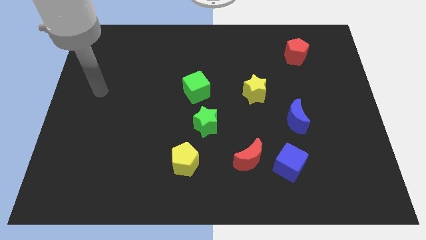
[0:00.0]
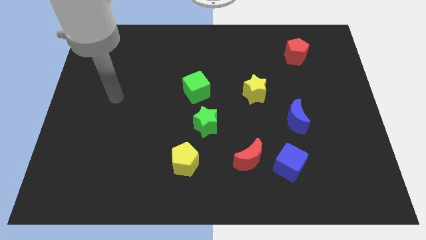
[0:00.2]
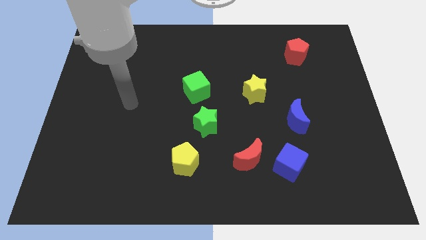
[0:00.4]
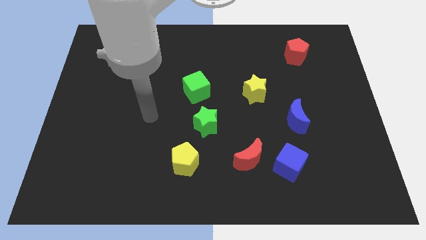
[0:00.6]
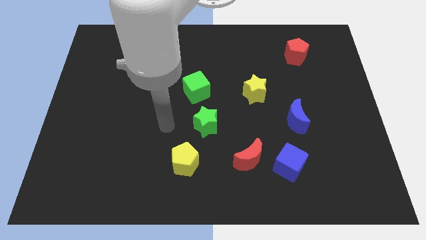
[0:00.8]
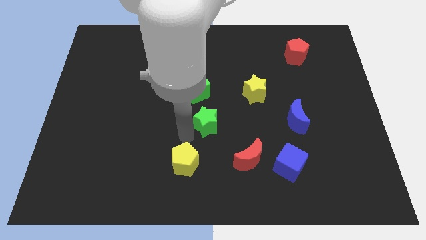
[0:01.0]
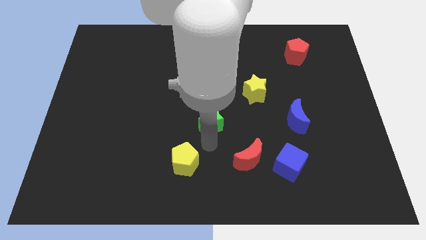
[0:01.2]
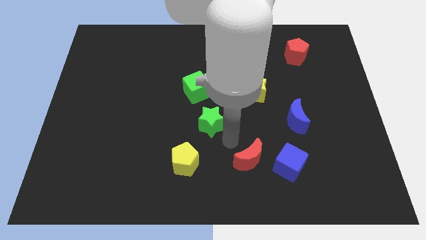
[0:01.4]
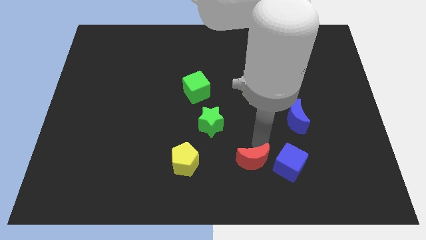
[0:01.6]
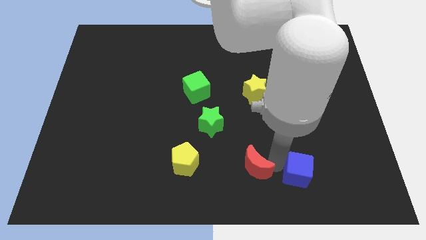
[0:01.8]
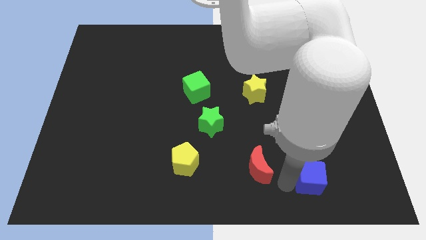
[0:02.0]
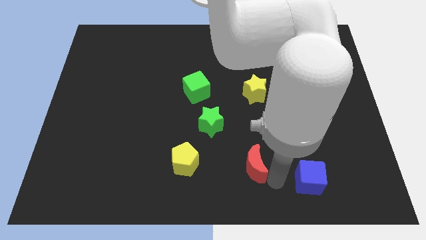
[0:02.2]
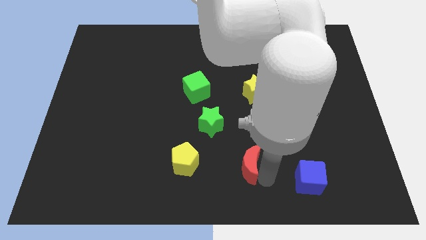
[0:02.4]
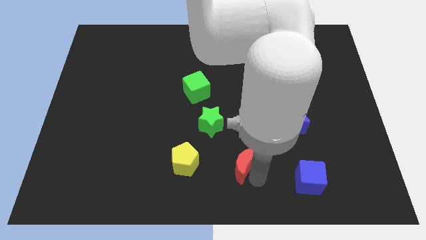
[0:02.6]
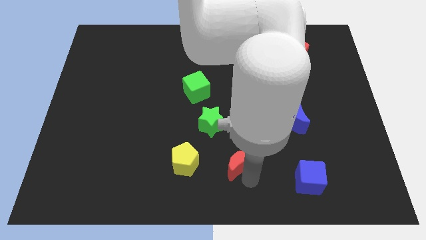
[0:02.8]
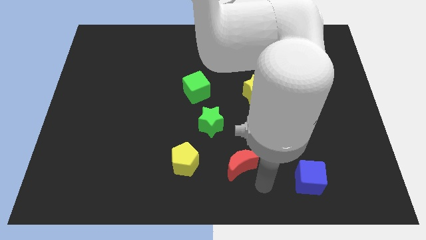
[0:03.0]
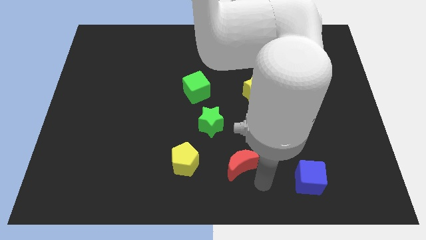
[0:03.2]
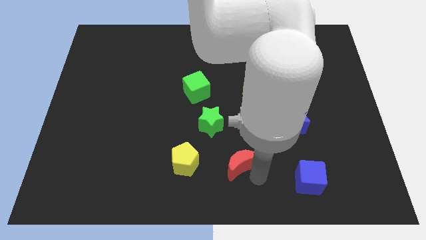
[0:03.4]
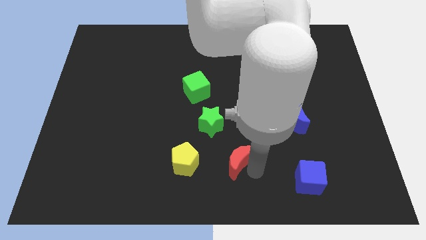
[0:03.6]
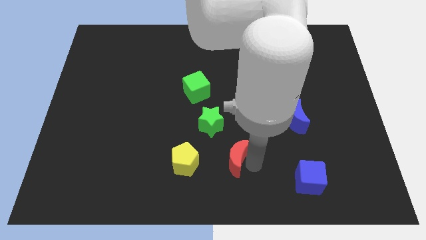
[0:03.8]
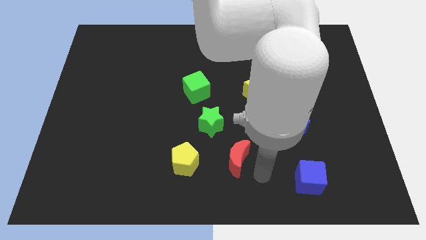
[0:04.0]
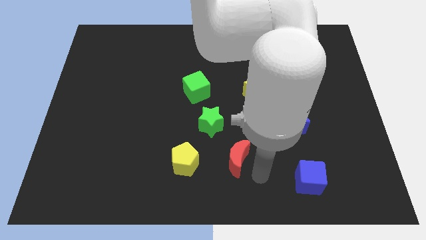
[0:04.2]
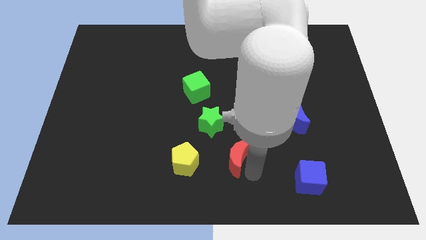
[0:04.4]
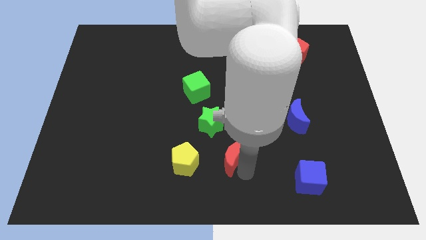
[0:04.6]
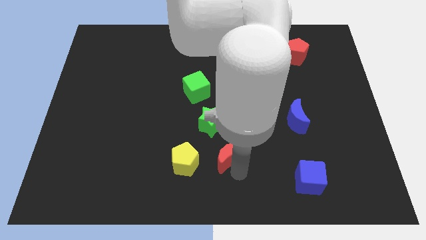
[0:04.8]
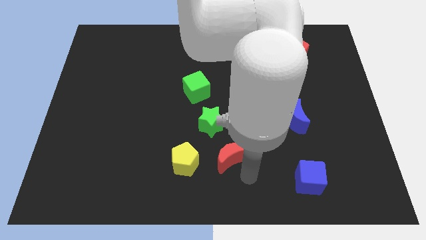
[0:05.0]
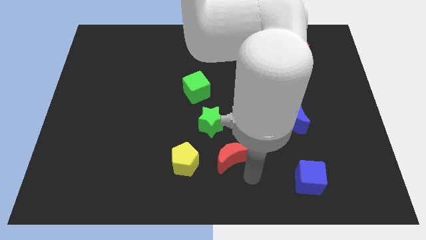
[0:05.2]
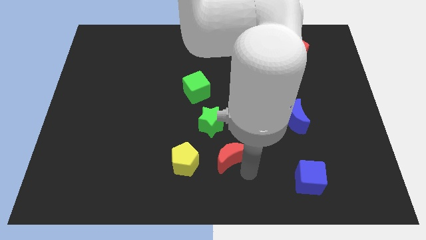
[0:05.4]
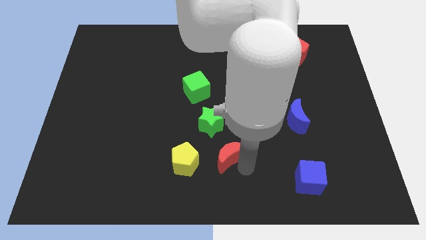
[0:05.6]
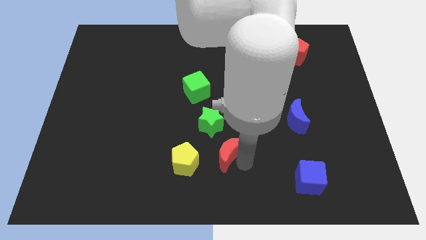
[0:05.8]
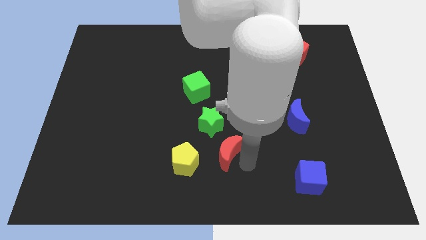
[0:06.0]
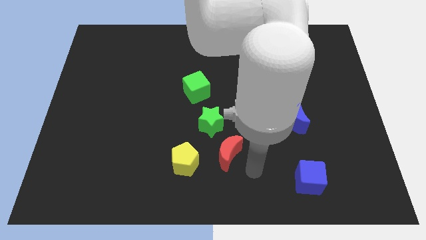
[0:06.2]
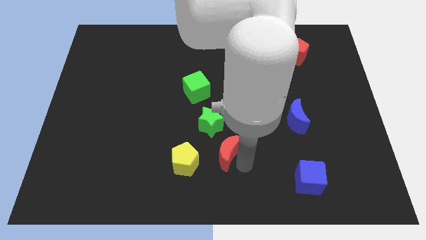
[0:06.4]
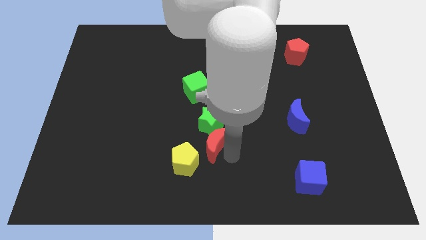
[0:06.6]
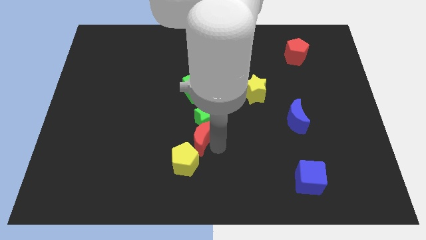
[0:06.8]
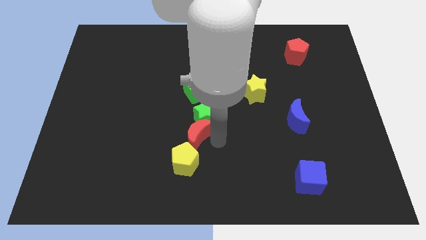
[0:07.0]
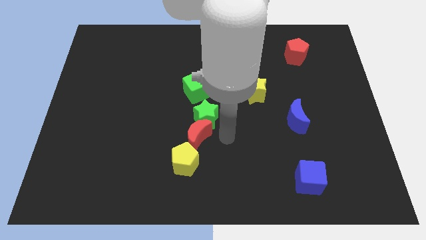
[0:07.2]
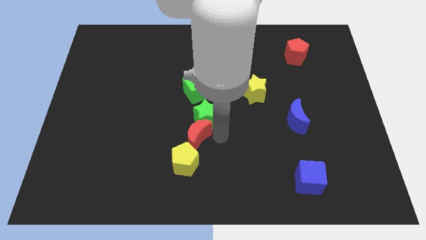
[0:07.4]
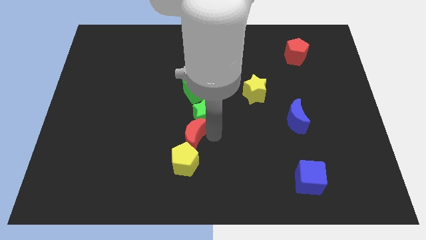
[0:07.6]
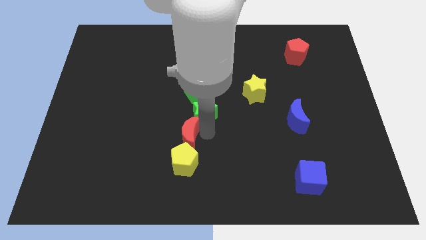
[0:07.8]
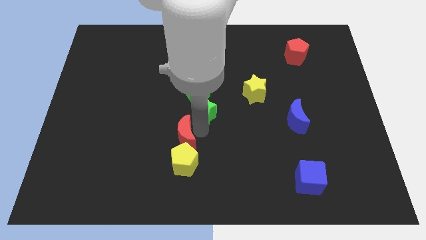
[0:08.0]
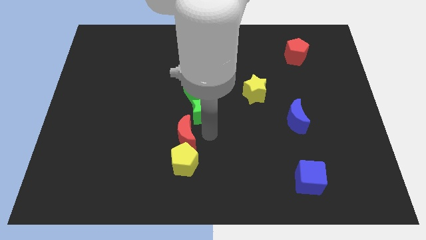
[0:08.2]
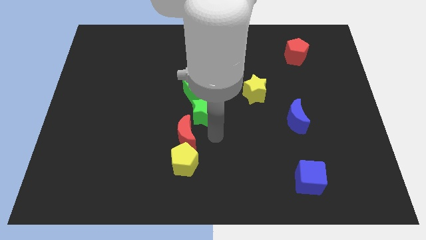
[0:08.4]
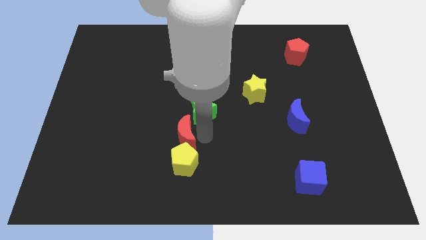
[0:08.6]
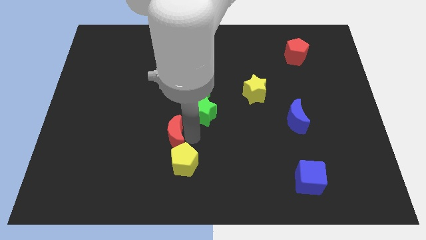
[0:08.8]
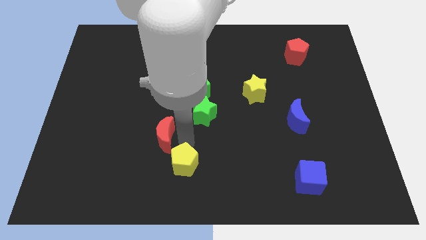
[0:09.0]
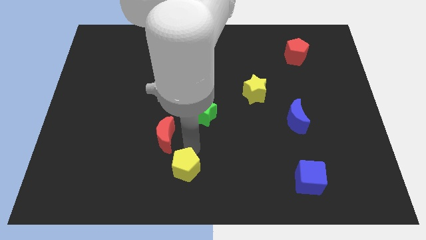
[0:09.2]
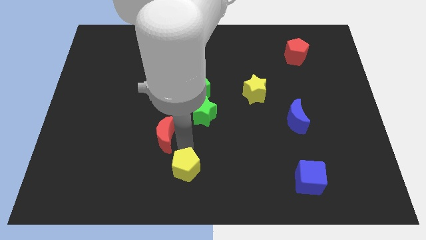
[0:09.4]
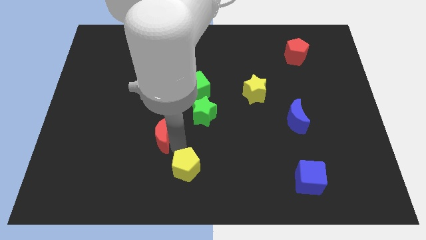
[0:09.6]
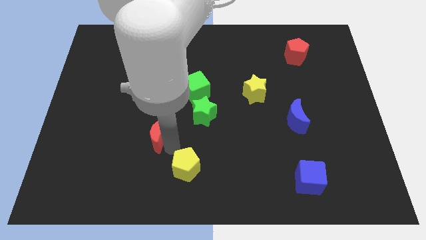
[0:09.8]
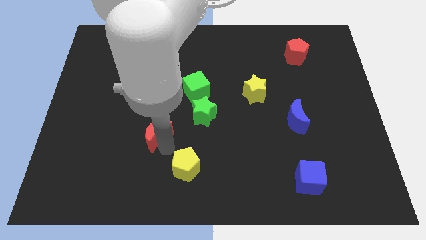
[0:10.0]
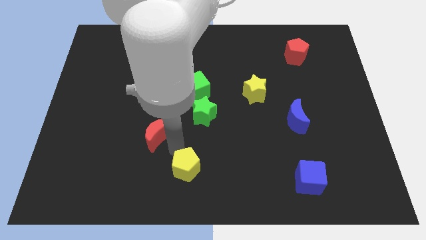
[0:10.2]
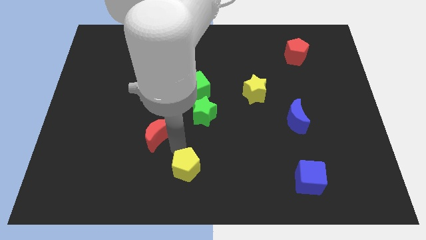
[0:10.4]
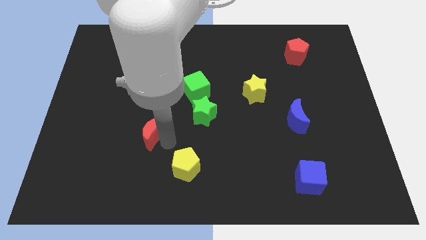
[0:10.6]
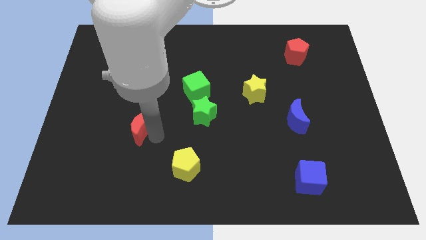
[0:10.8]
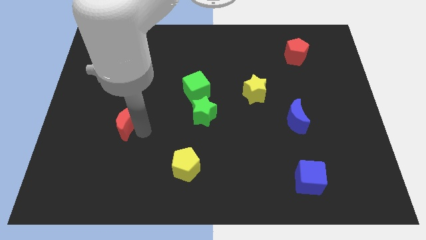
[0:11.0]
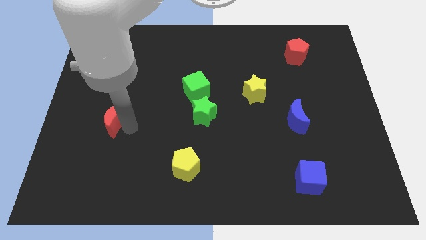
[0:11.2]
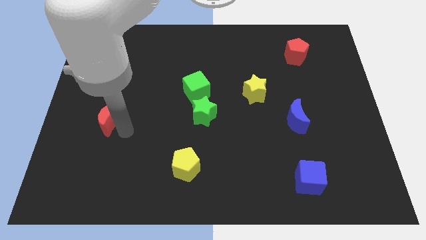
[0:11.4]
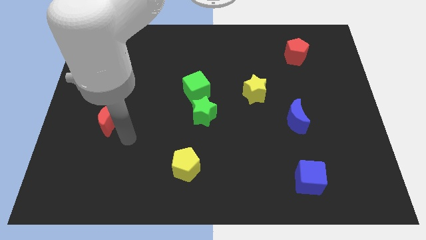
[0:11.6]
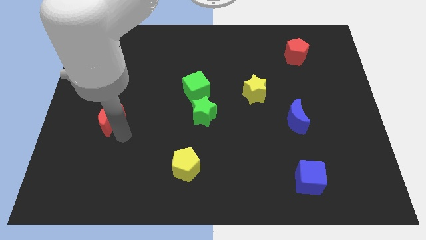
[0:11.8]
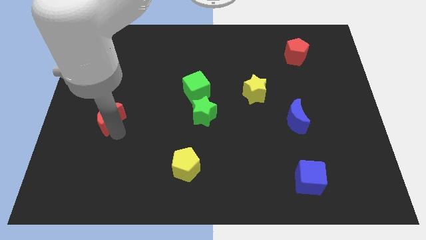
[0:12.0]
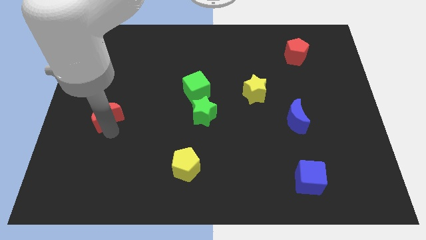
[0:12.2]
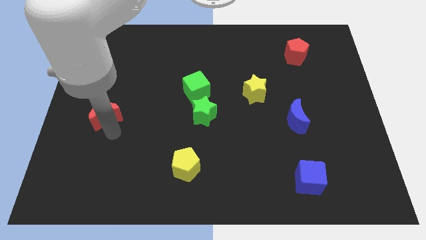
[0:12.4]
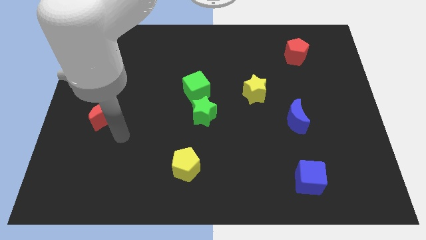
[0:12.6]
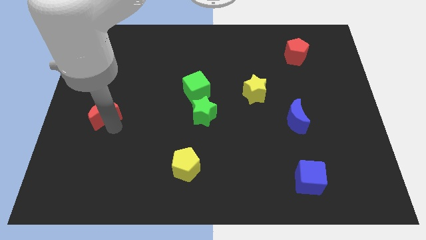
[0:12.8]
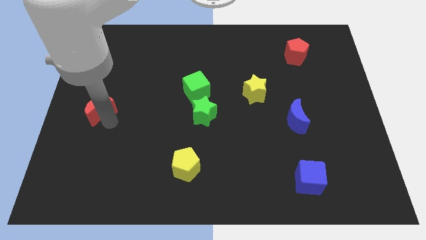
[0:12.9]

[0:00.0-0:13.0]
move the red moon to the left side of the board

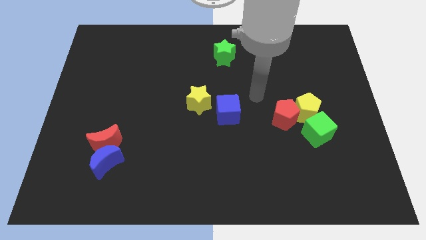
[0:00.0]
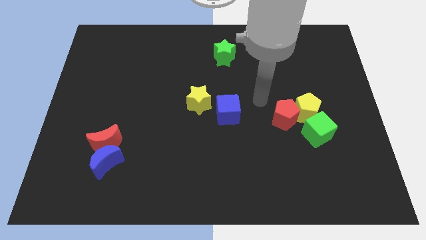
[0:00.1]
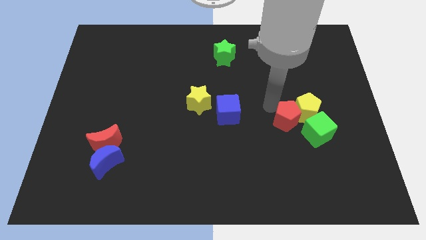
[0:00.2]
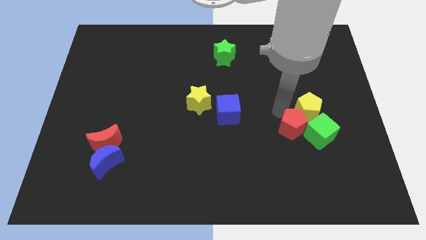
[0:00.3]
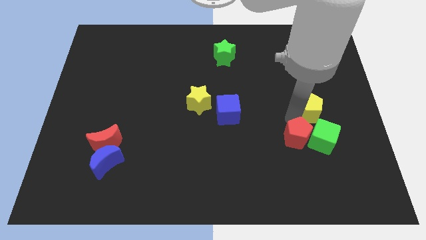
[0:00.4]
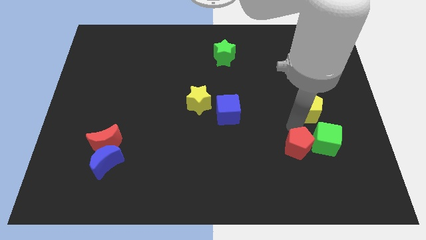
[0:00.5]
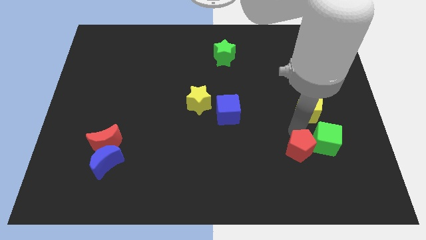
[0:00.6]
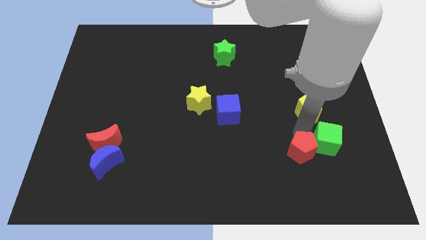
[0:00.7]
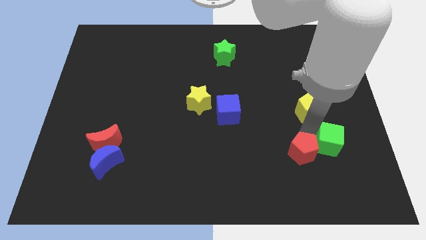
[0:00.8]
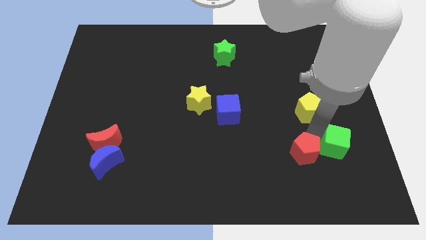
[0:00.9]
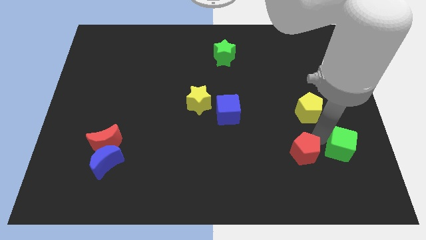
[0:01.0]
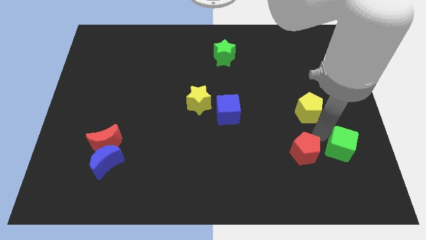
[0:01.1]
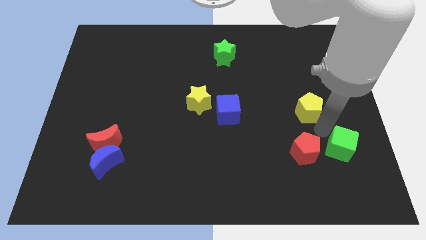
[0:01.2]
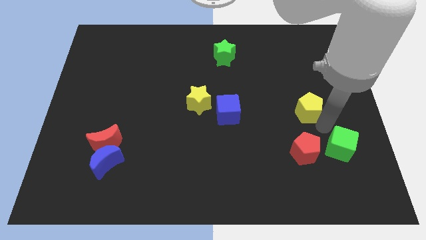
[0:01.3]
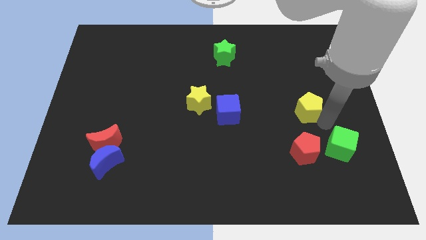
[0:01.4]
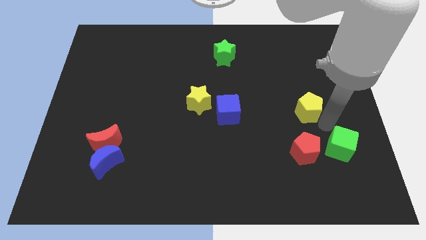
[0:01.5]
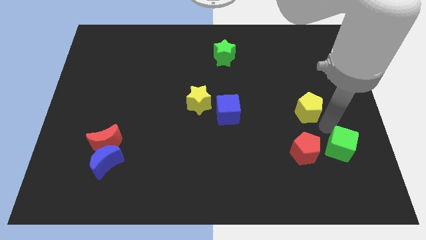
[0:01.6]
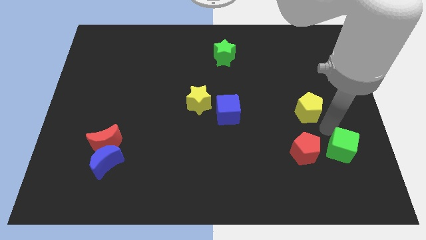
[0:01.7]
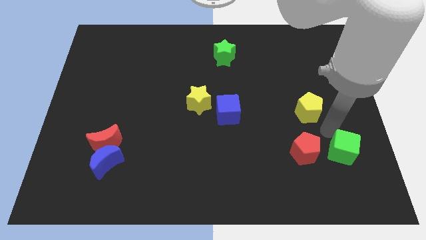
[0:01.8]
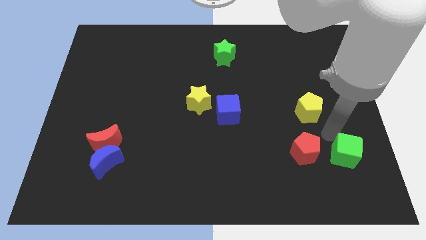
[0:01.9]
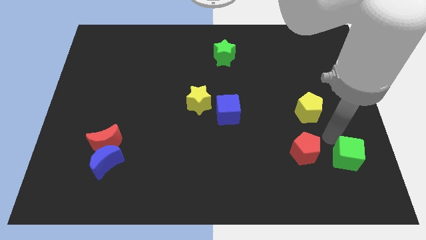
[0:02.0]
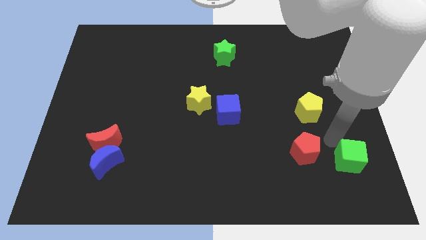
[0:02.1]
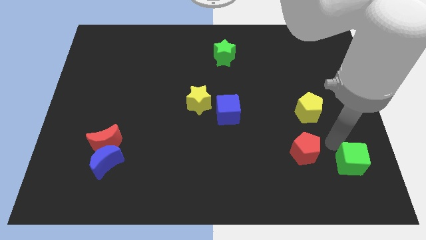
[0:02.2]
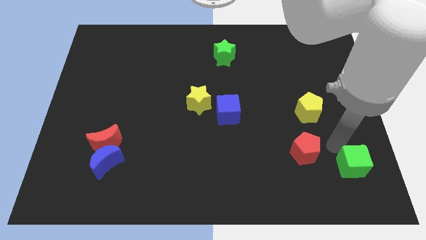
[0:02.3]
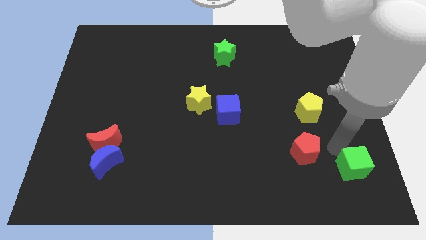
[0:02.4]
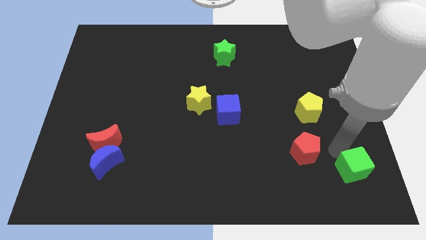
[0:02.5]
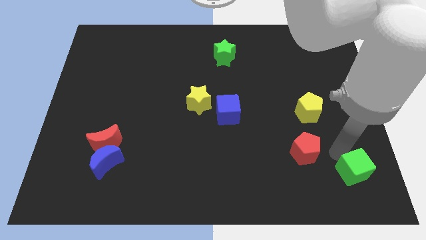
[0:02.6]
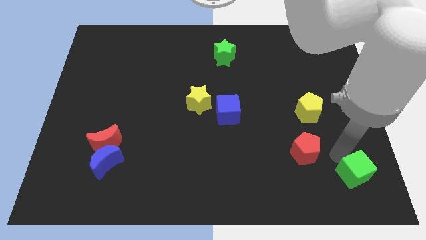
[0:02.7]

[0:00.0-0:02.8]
slide the green cube to the bottom right of the board
